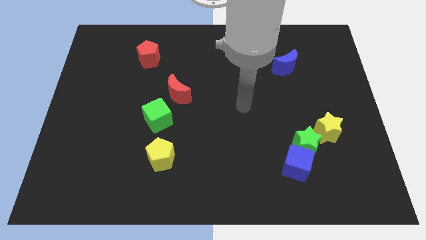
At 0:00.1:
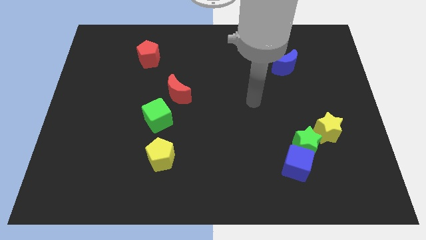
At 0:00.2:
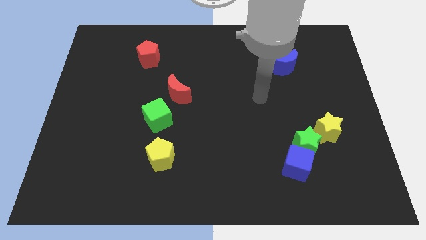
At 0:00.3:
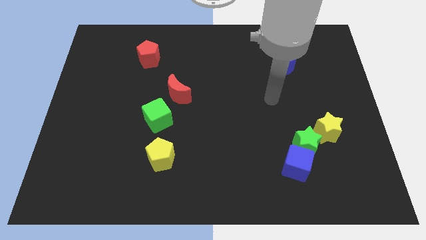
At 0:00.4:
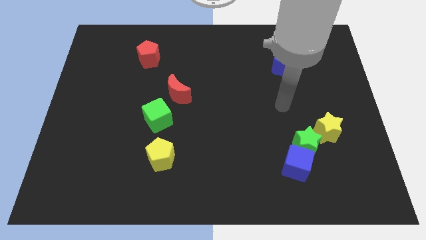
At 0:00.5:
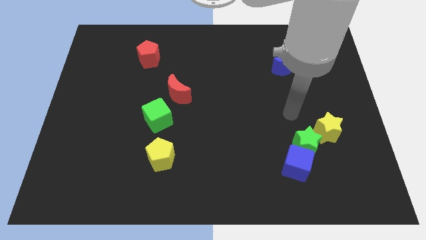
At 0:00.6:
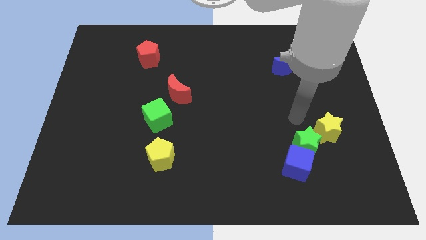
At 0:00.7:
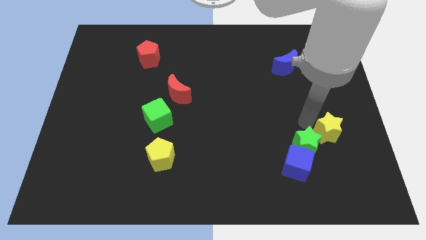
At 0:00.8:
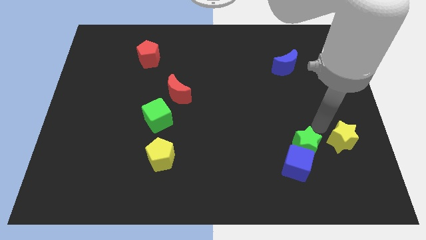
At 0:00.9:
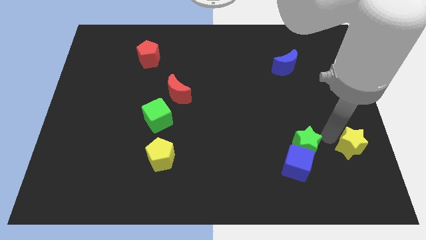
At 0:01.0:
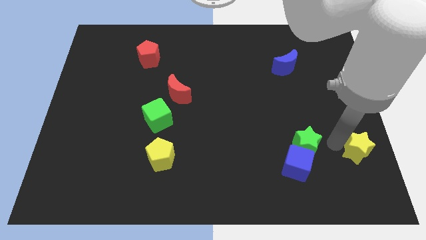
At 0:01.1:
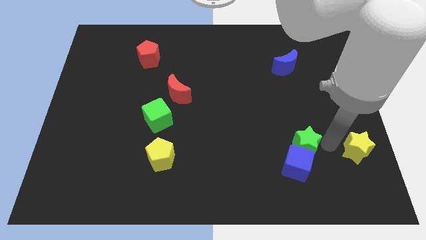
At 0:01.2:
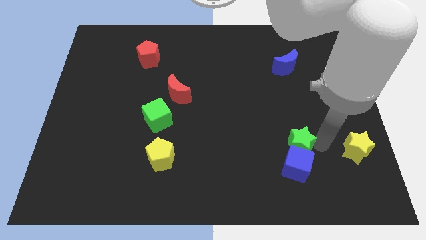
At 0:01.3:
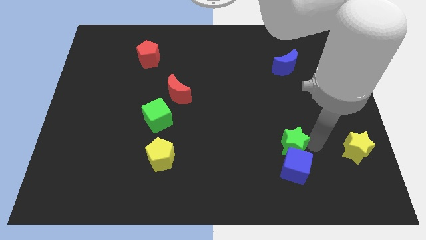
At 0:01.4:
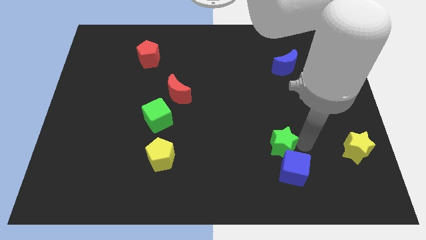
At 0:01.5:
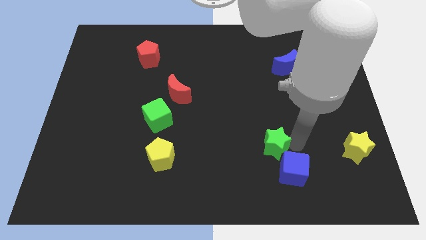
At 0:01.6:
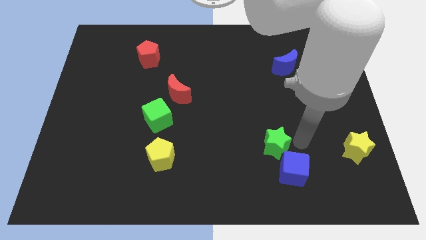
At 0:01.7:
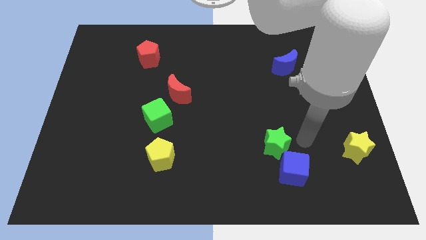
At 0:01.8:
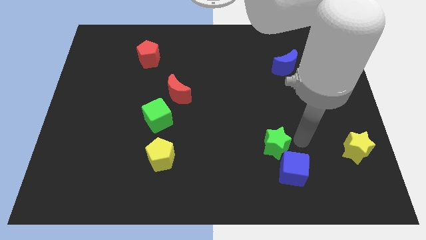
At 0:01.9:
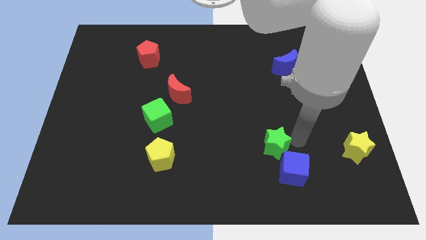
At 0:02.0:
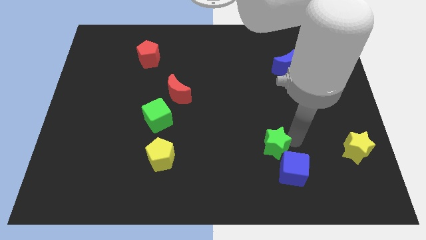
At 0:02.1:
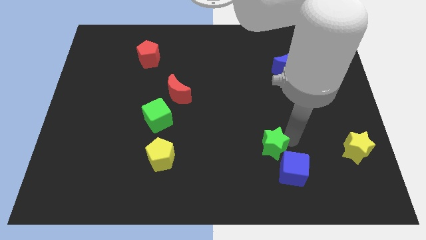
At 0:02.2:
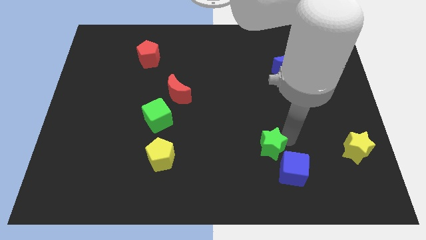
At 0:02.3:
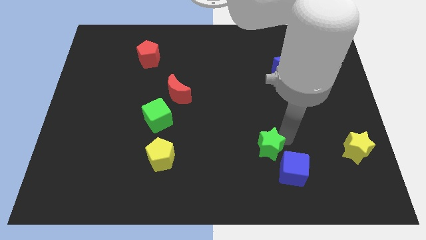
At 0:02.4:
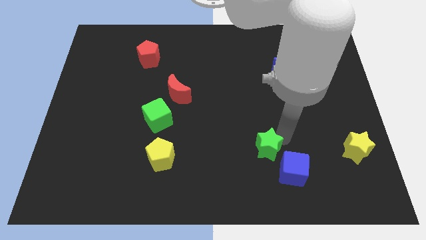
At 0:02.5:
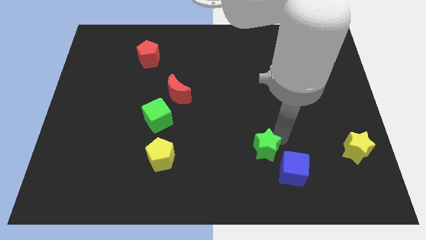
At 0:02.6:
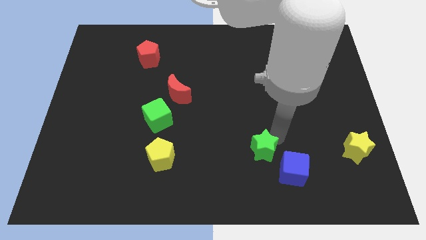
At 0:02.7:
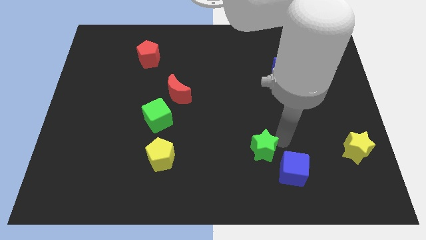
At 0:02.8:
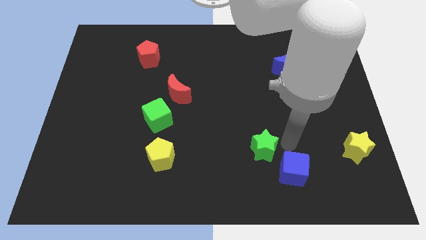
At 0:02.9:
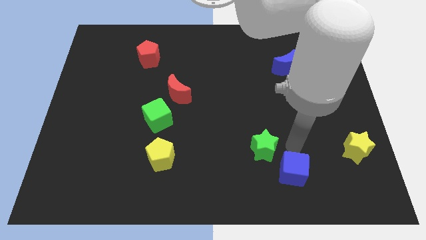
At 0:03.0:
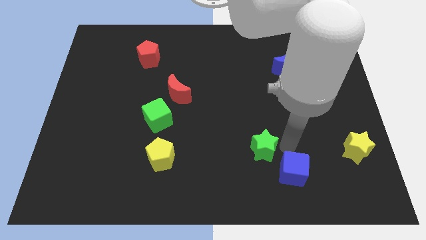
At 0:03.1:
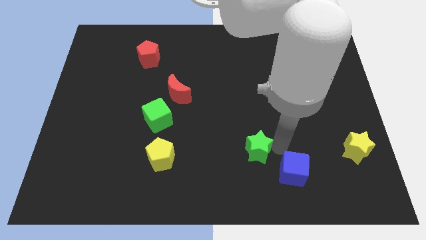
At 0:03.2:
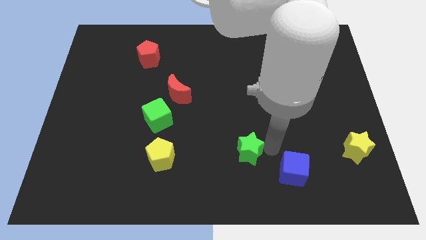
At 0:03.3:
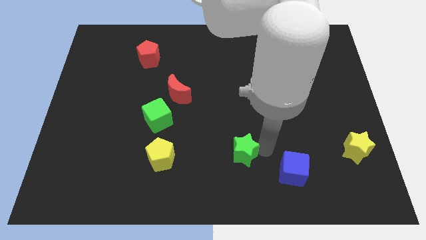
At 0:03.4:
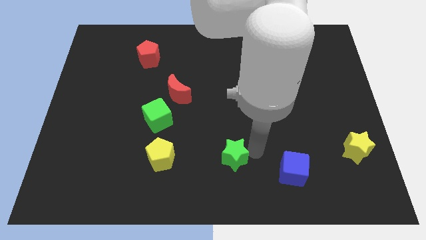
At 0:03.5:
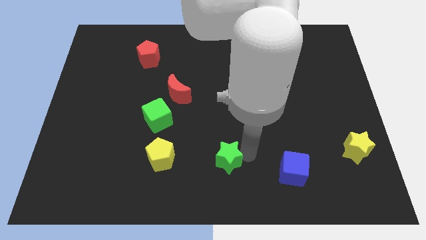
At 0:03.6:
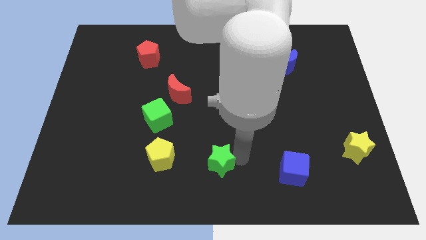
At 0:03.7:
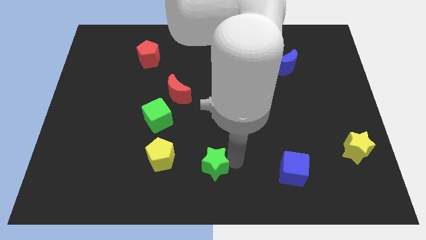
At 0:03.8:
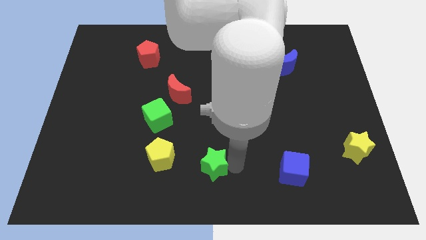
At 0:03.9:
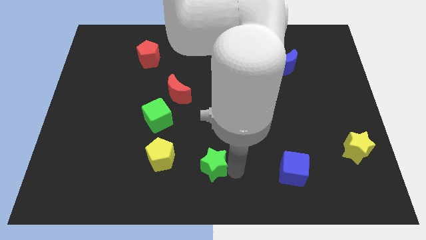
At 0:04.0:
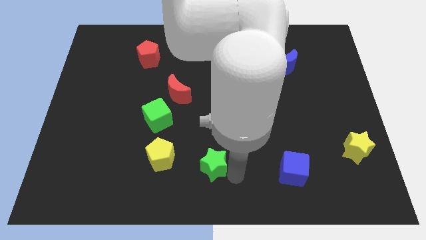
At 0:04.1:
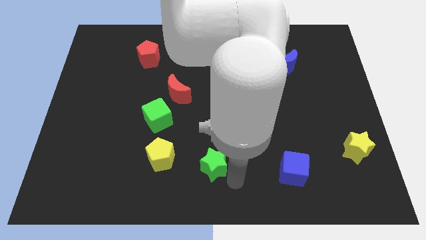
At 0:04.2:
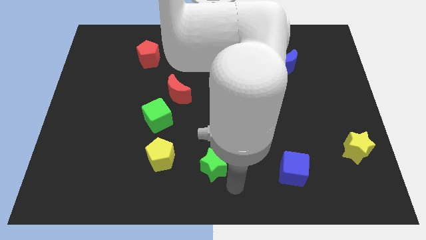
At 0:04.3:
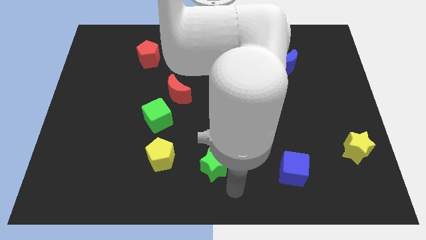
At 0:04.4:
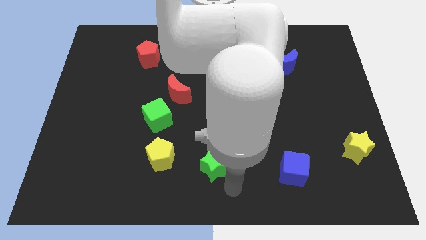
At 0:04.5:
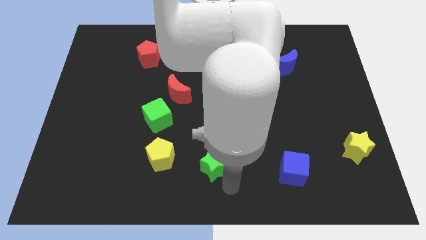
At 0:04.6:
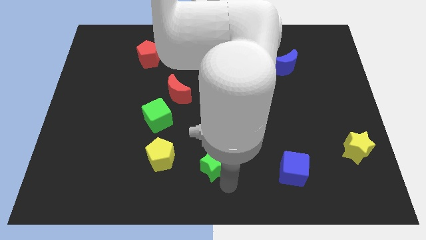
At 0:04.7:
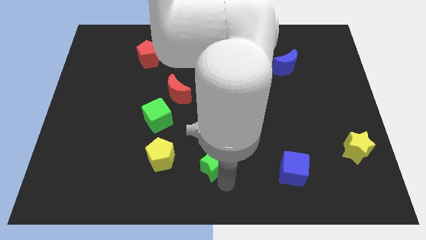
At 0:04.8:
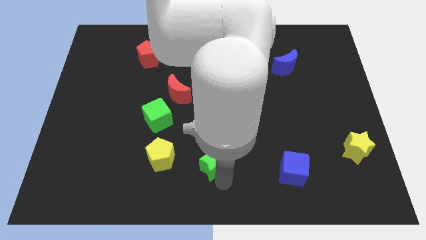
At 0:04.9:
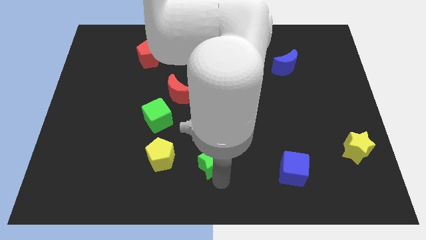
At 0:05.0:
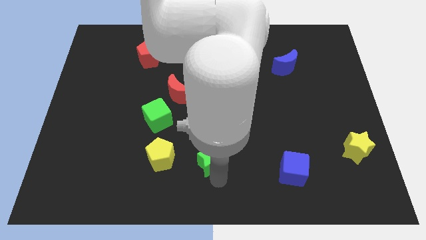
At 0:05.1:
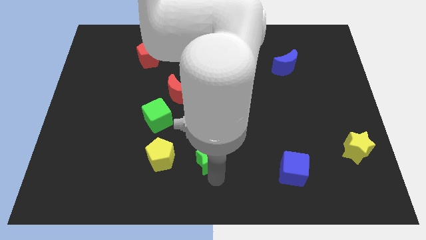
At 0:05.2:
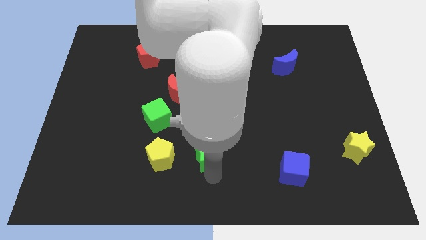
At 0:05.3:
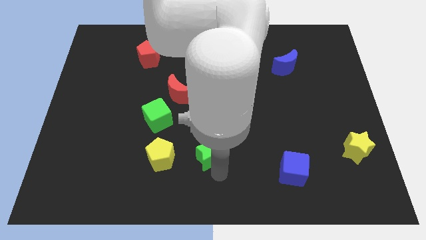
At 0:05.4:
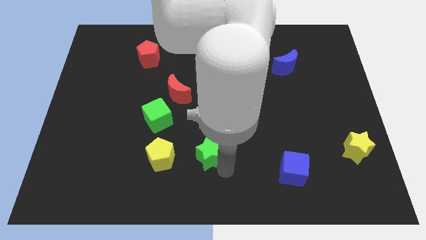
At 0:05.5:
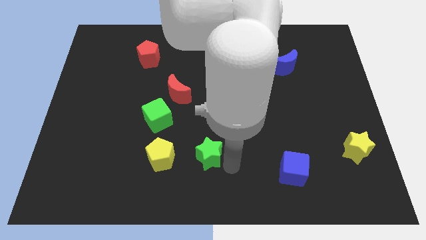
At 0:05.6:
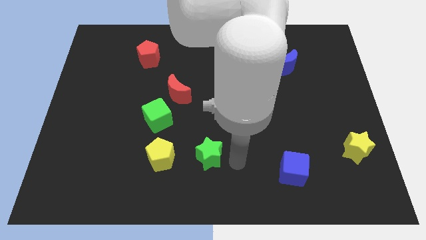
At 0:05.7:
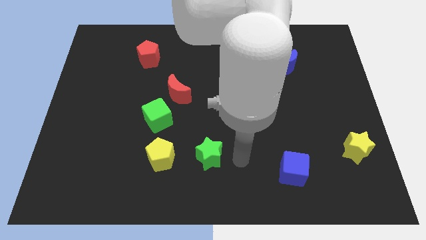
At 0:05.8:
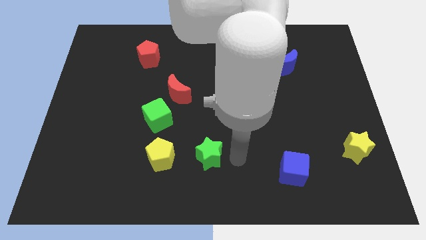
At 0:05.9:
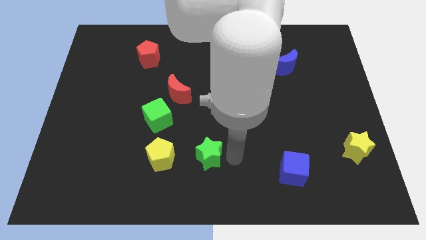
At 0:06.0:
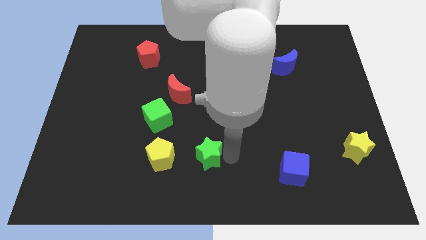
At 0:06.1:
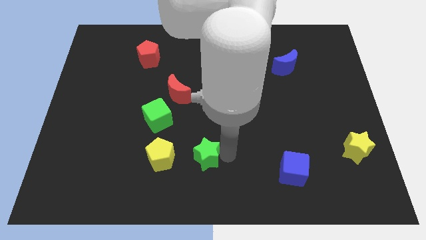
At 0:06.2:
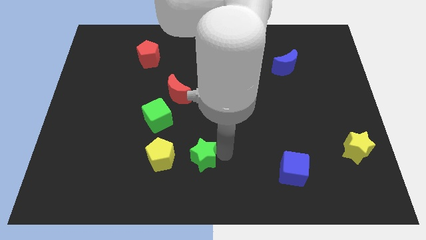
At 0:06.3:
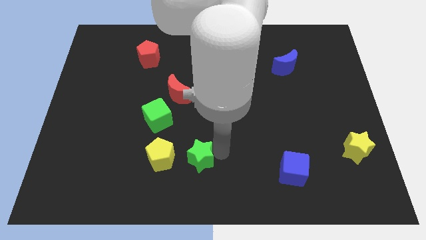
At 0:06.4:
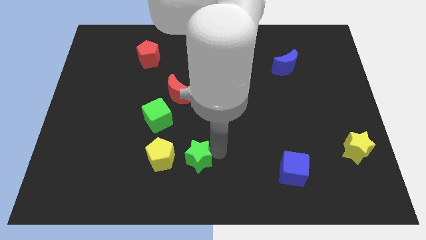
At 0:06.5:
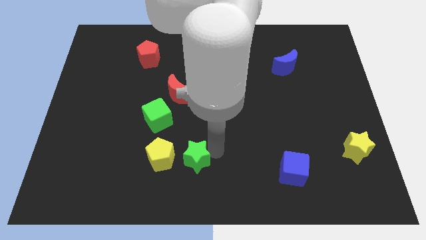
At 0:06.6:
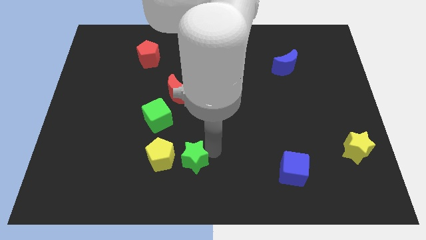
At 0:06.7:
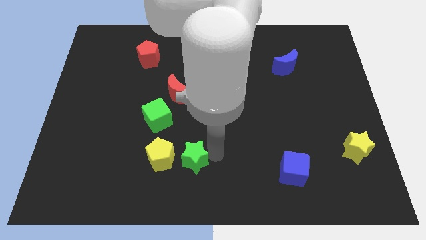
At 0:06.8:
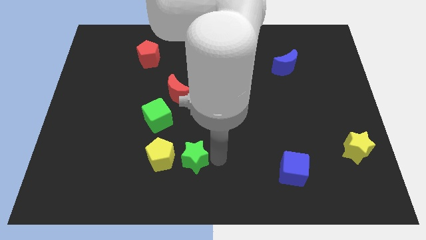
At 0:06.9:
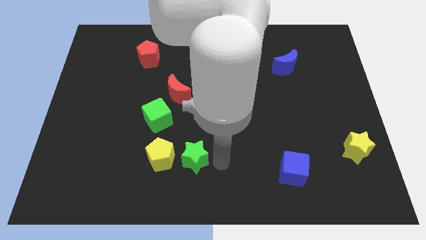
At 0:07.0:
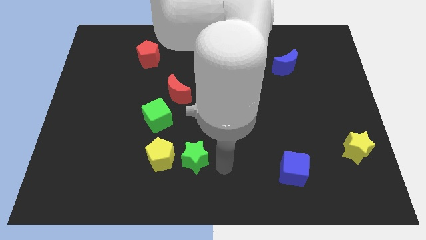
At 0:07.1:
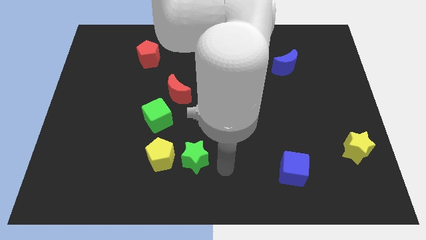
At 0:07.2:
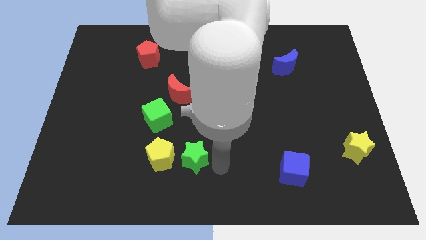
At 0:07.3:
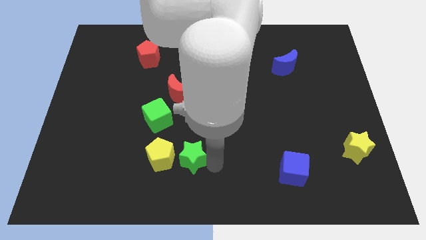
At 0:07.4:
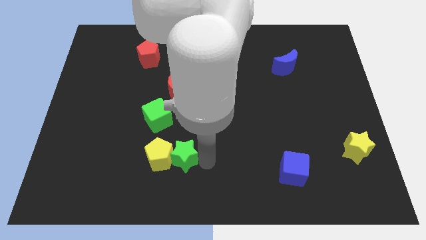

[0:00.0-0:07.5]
push the green star towards the yellow pentagon
